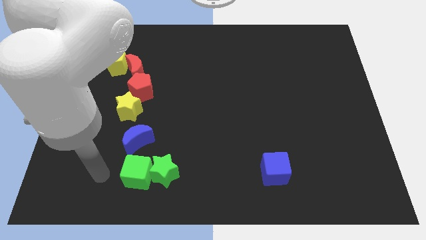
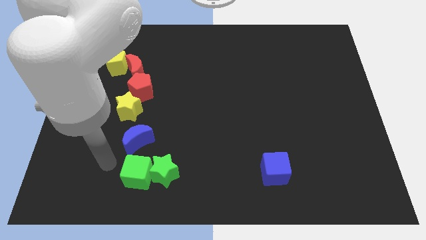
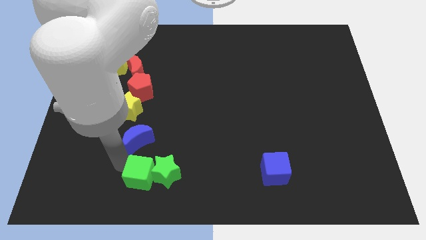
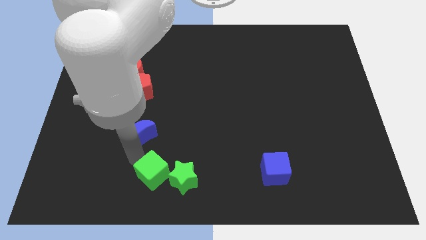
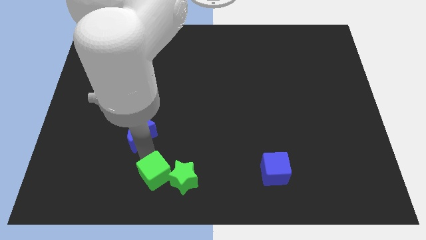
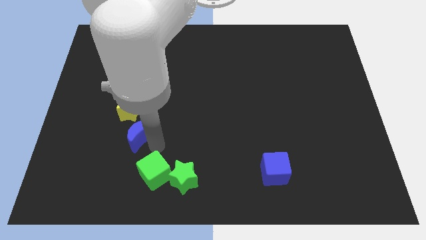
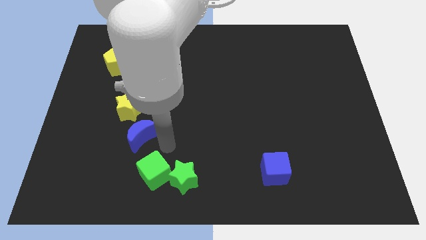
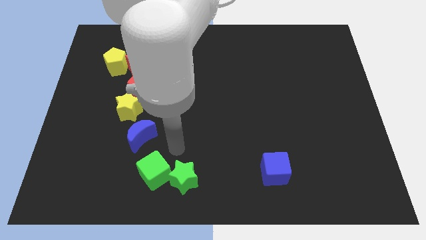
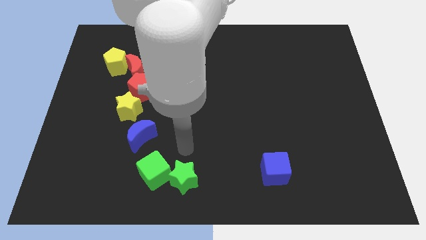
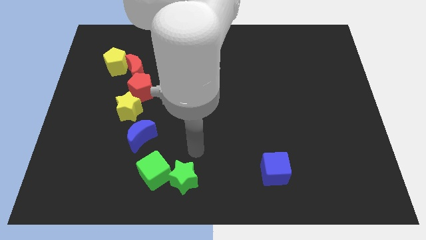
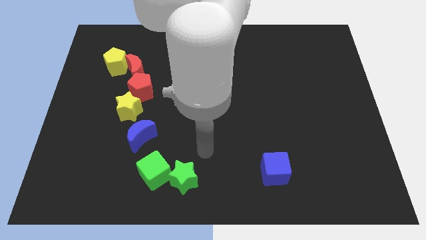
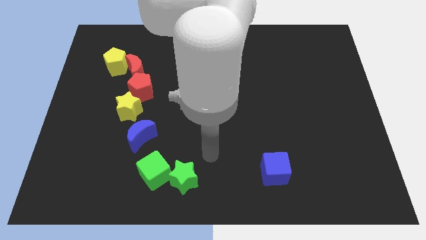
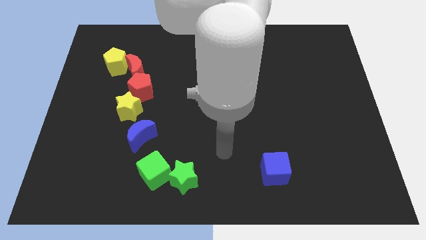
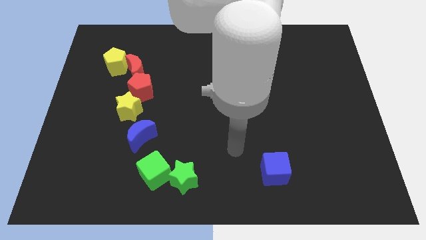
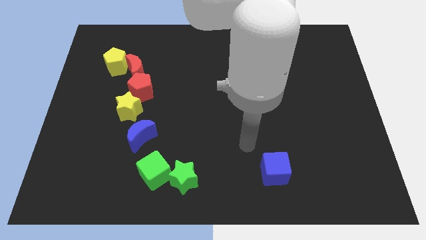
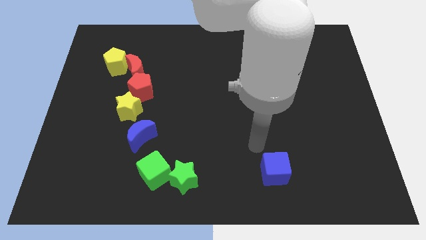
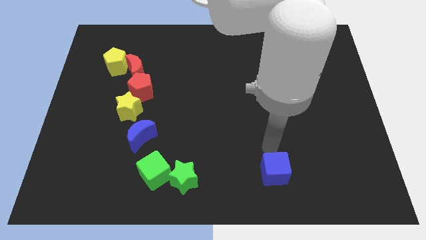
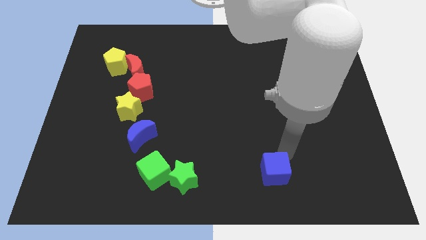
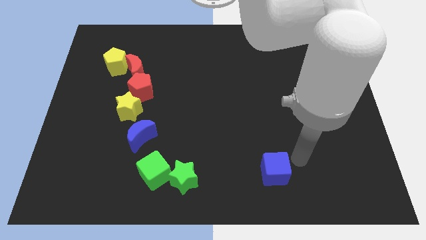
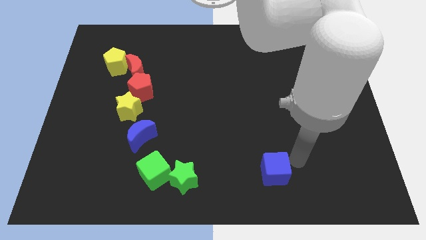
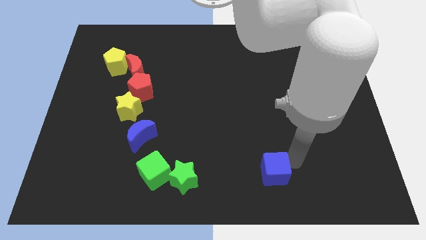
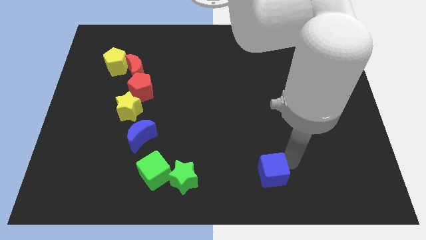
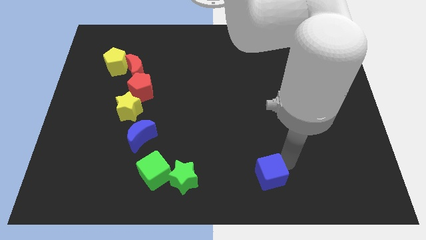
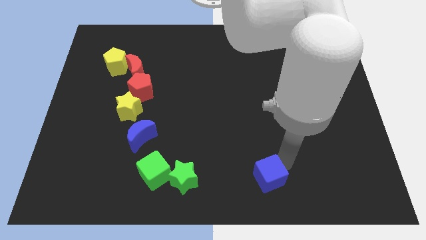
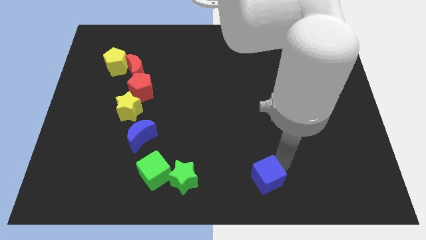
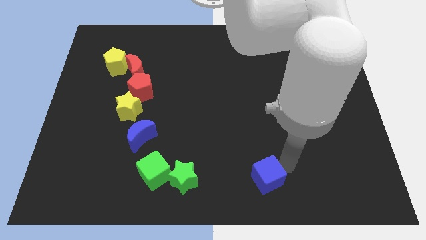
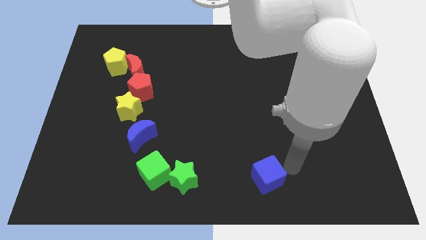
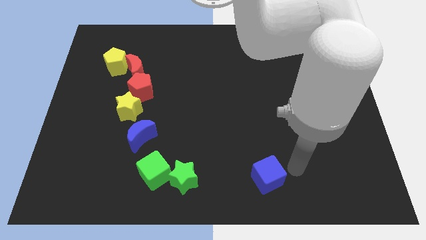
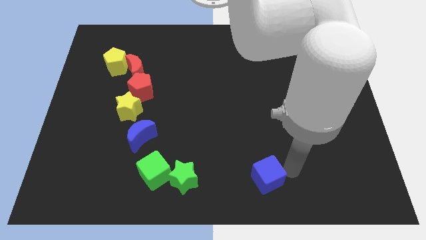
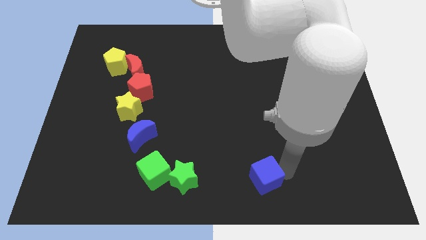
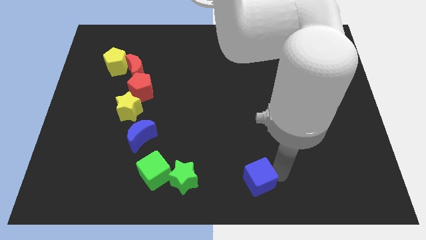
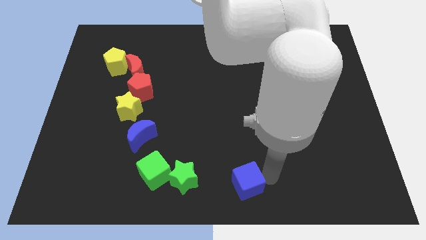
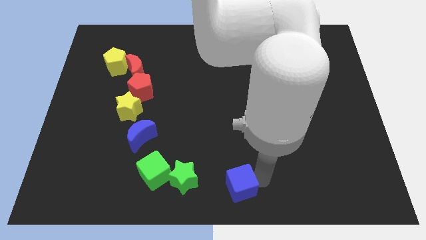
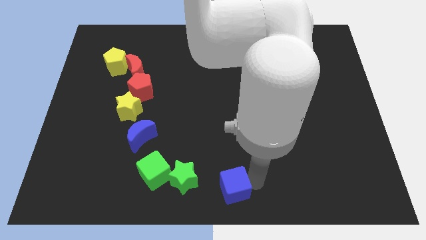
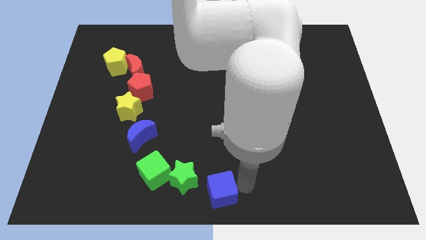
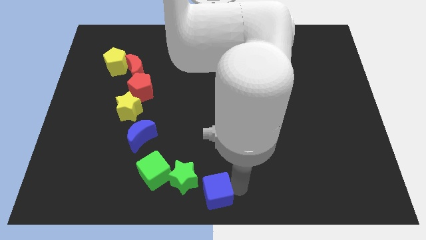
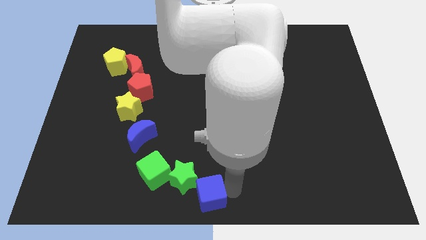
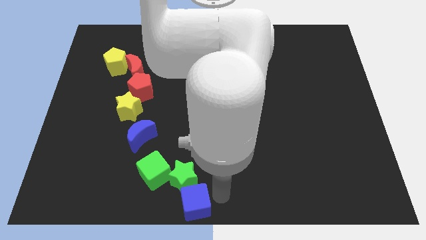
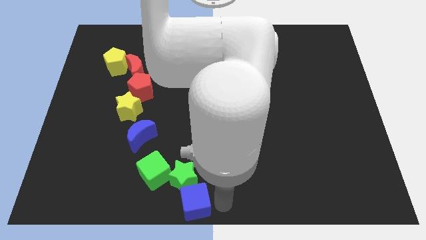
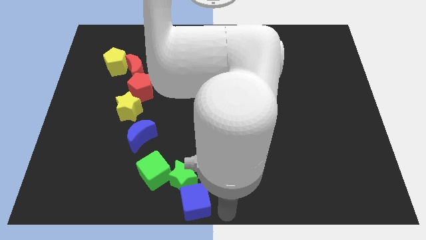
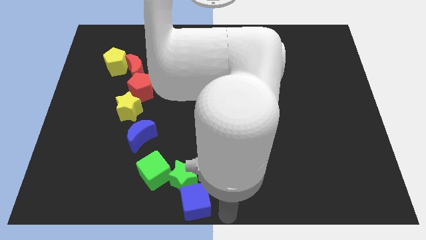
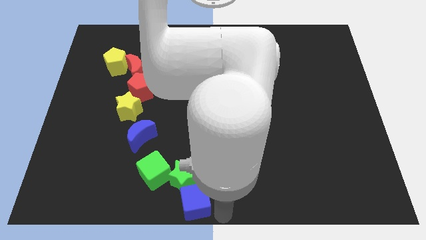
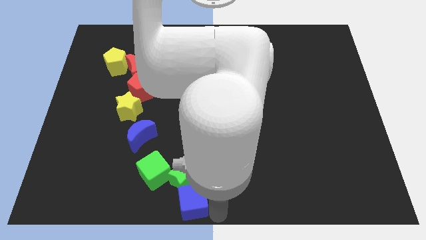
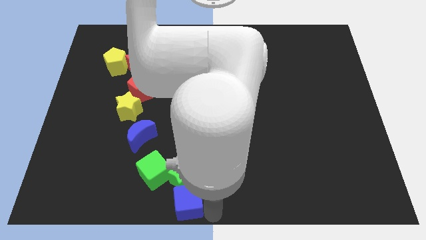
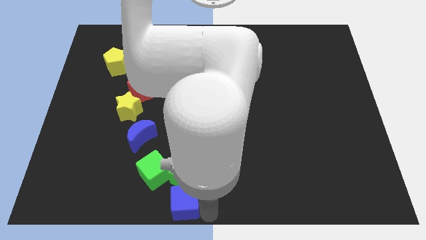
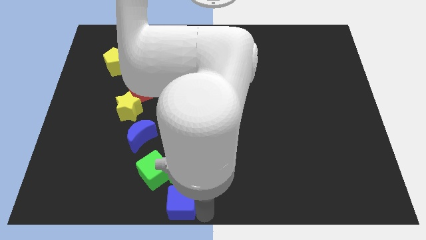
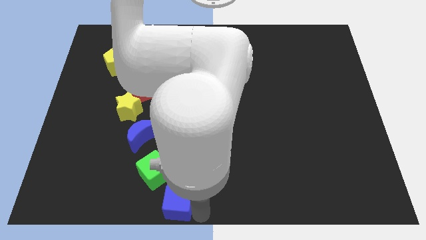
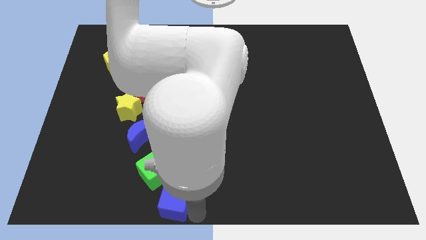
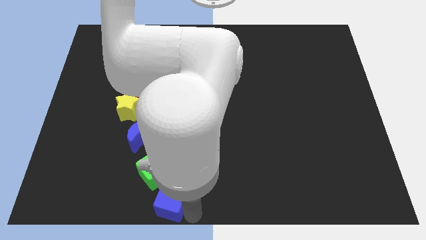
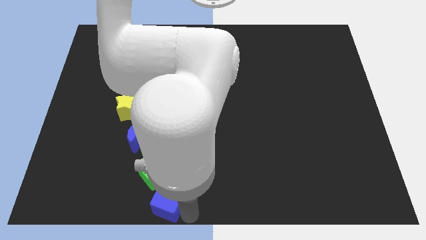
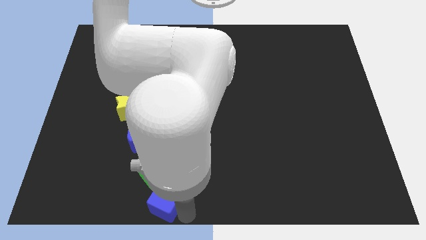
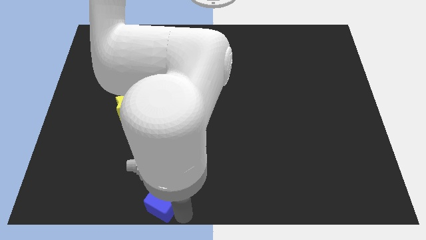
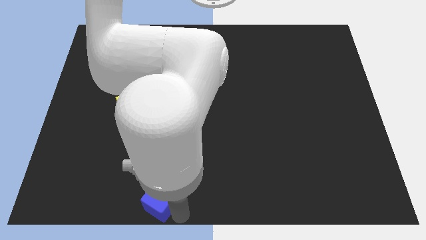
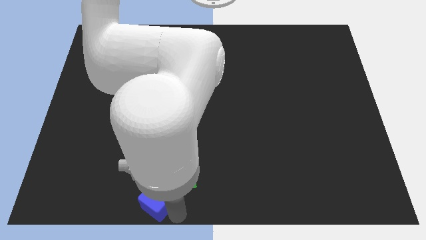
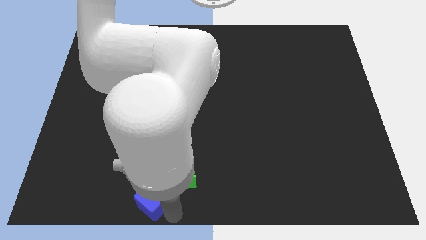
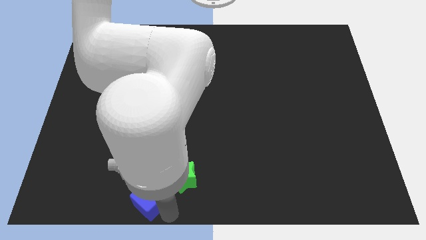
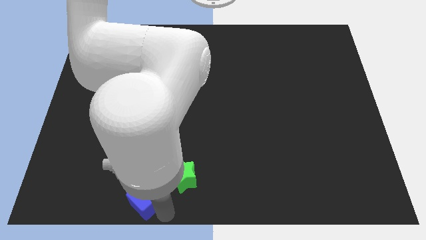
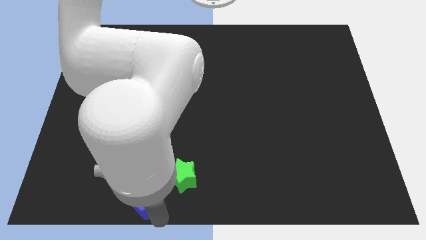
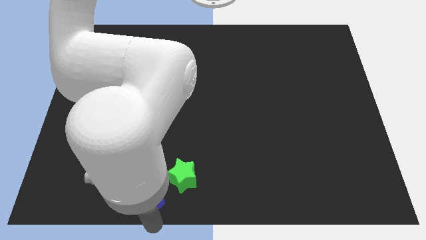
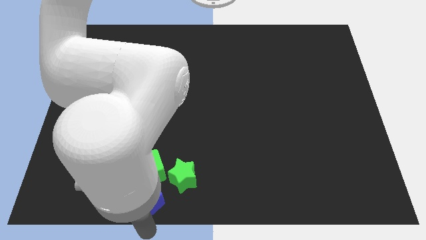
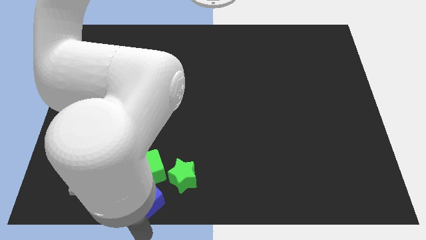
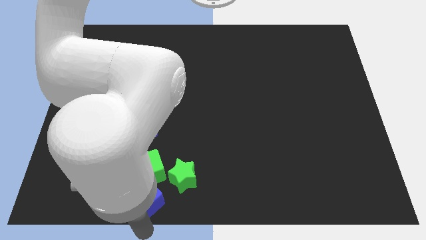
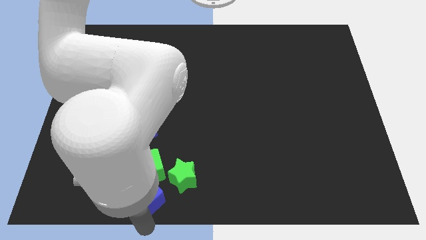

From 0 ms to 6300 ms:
slide the blue cube towards the green cube
